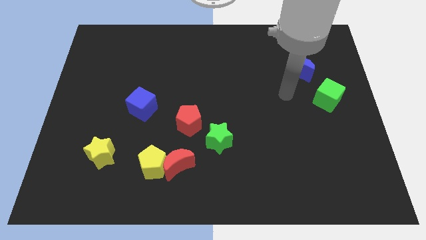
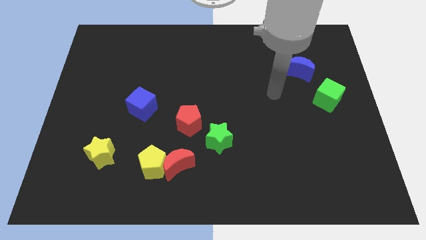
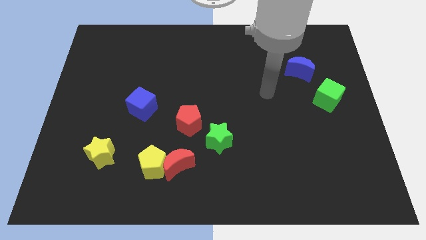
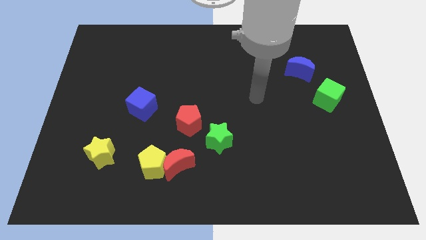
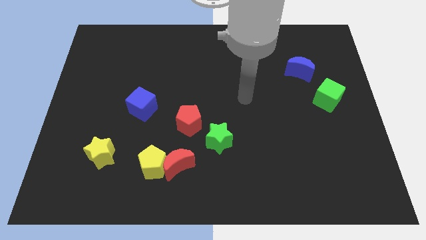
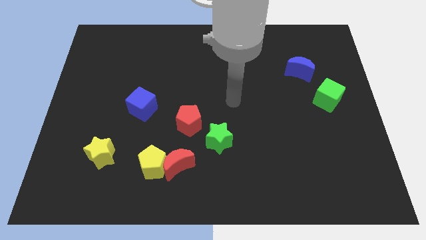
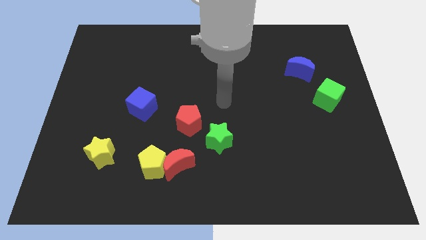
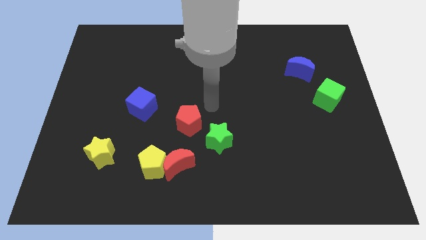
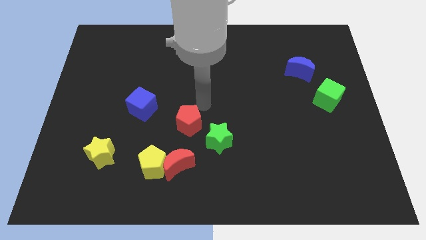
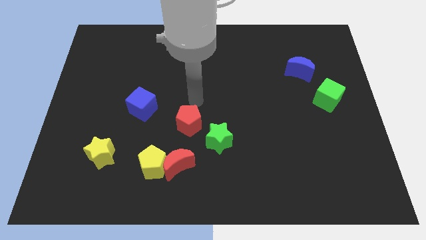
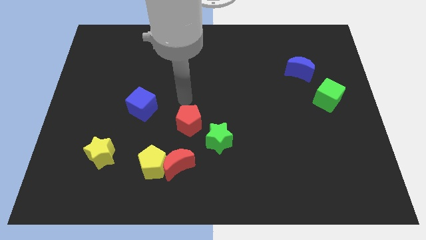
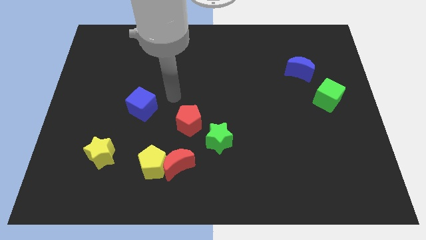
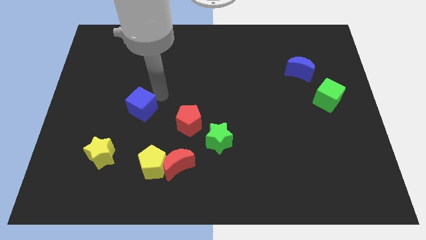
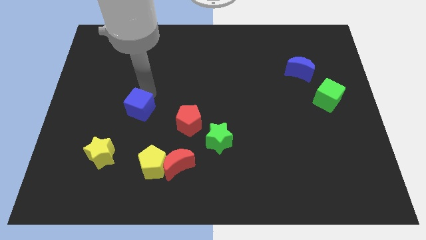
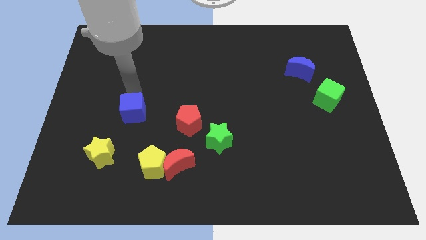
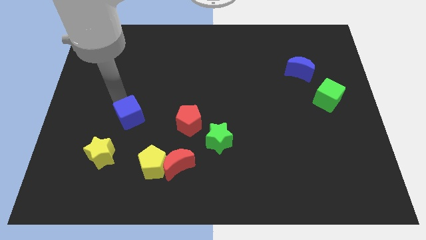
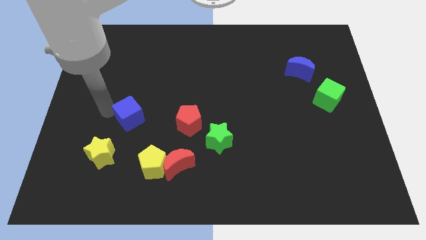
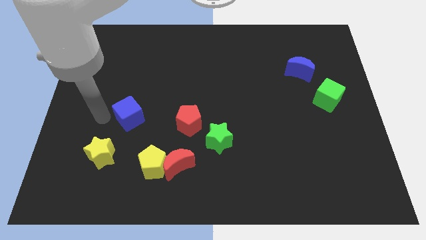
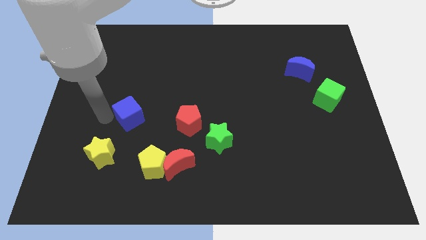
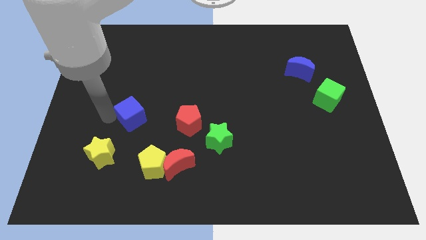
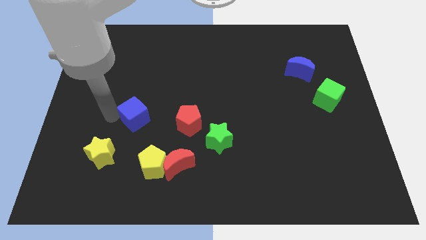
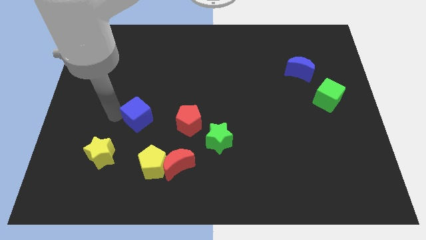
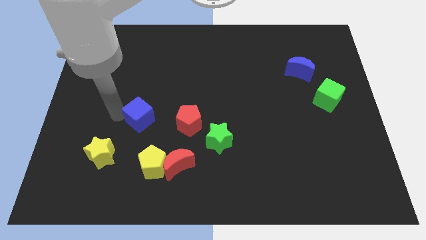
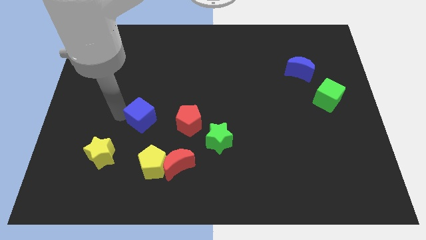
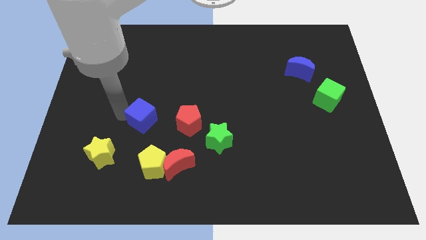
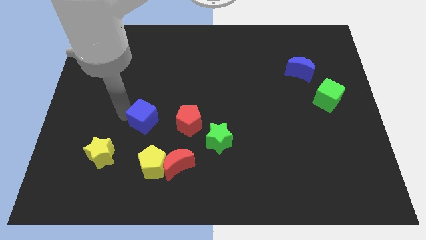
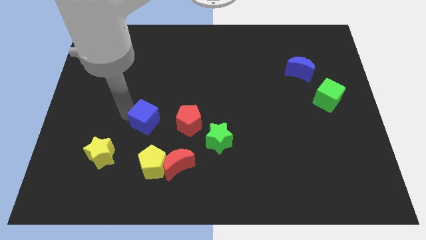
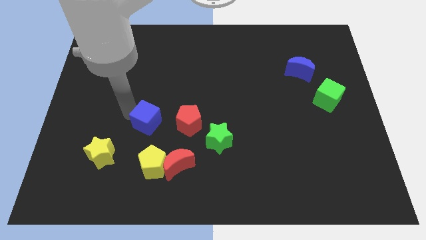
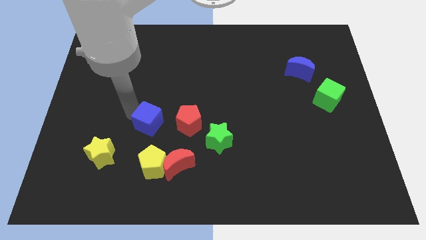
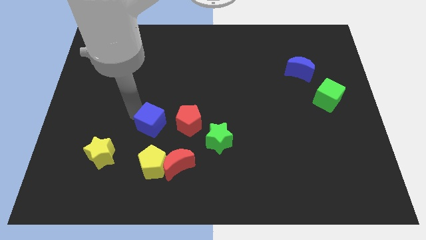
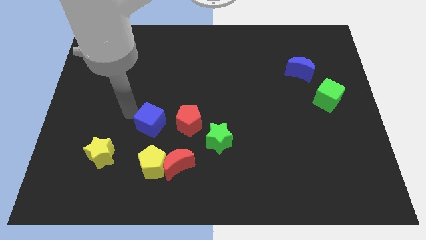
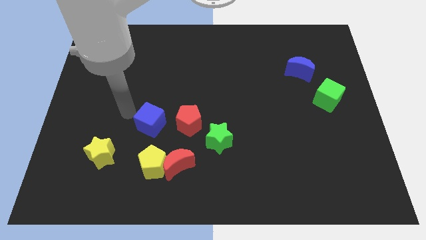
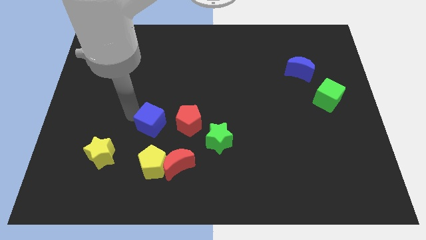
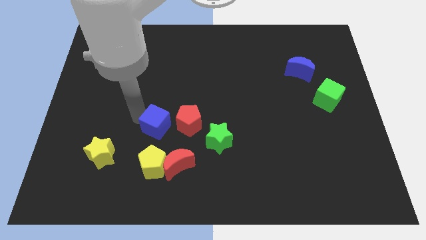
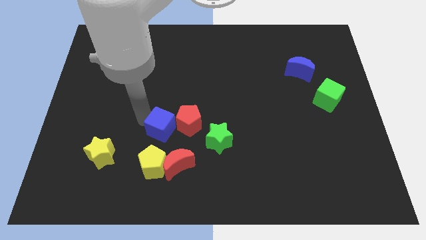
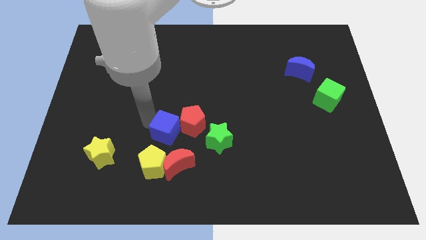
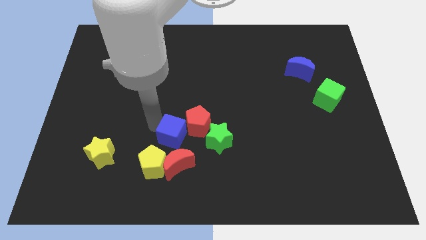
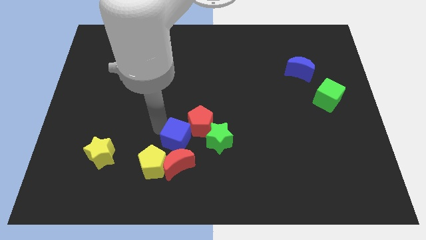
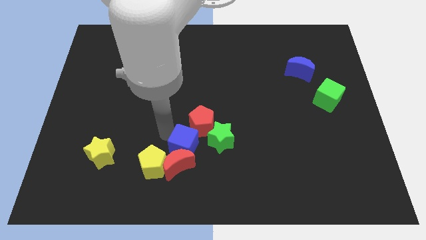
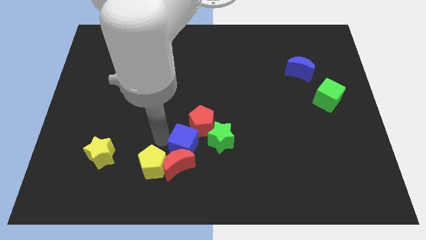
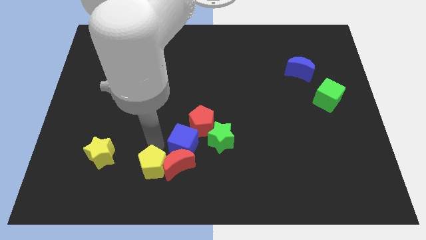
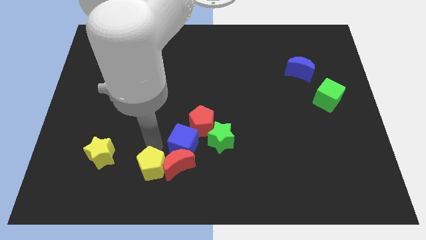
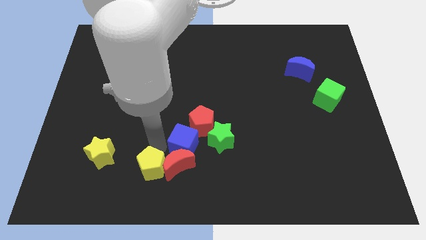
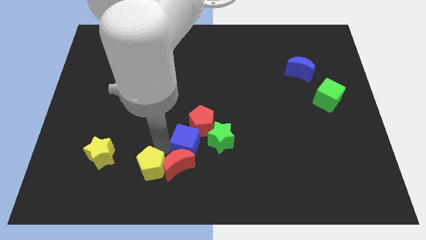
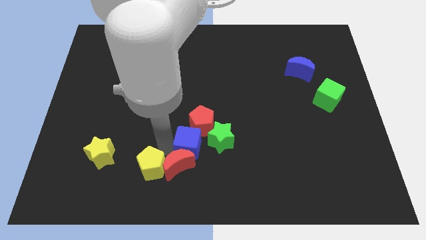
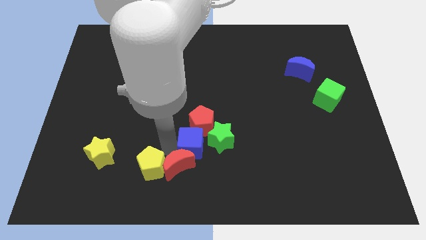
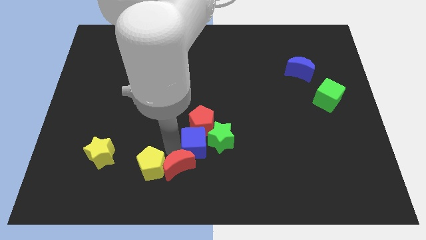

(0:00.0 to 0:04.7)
push the blue cube next to the green star

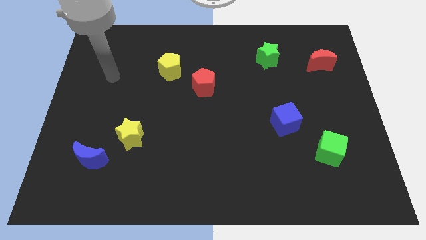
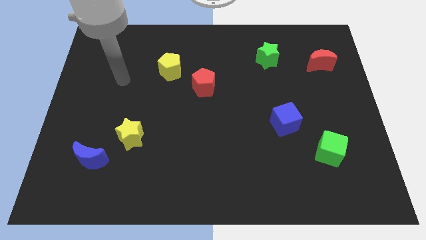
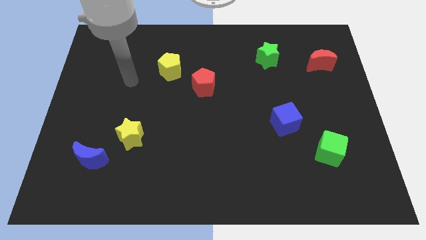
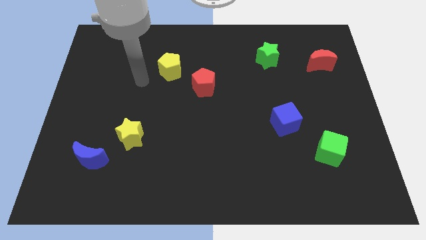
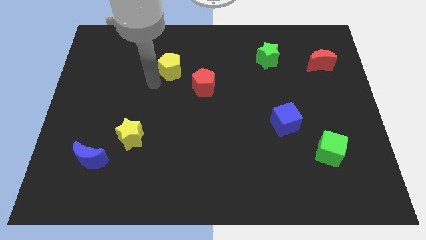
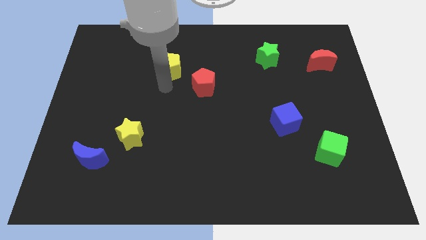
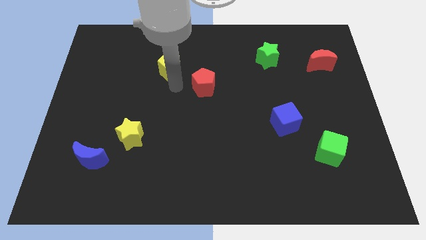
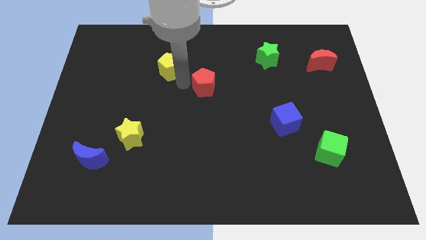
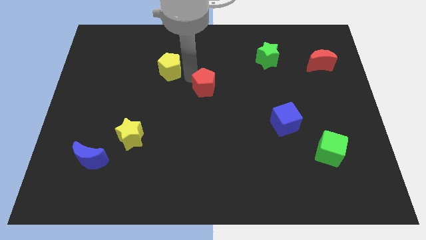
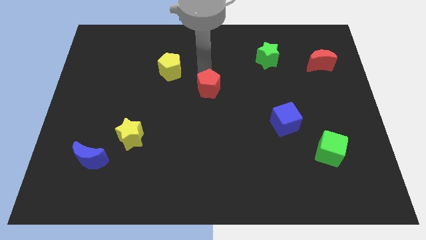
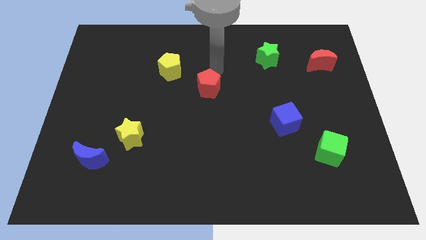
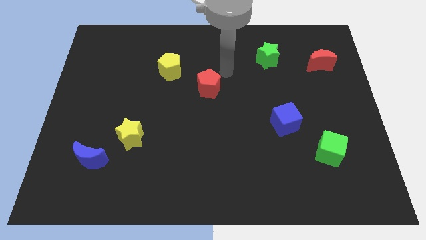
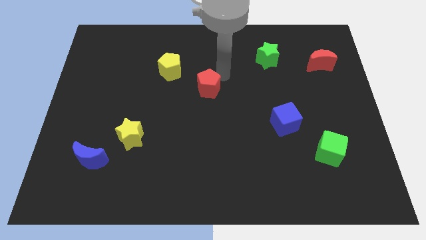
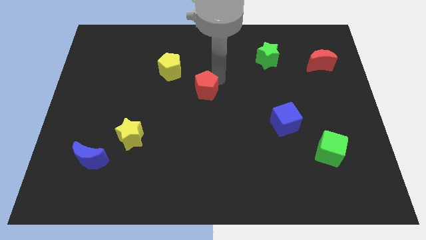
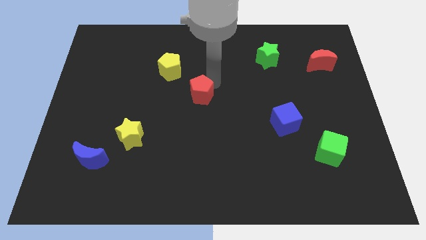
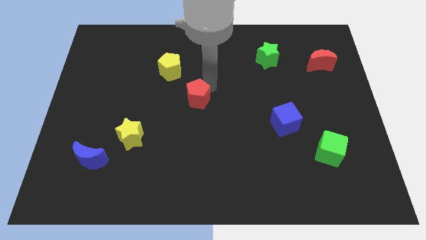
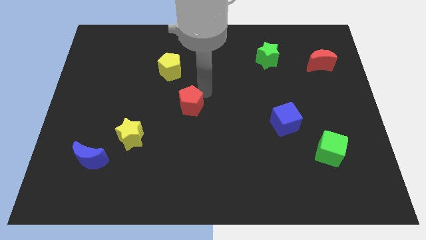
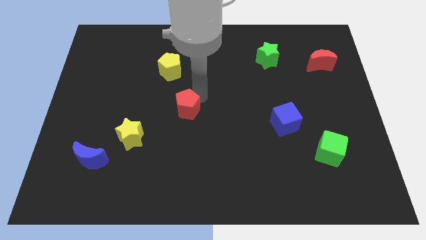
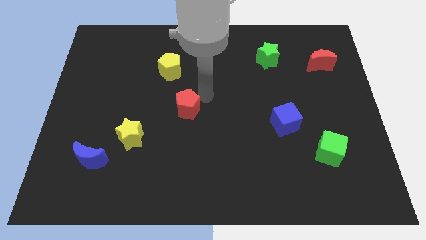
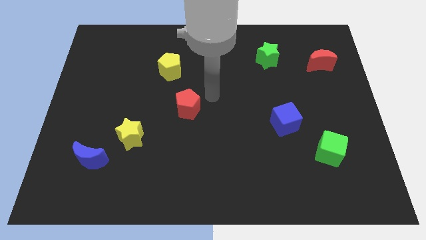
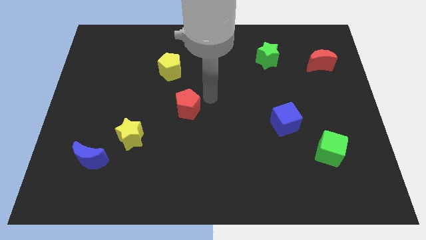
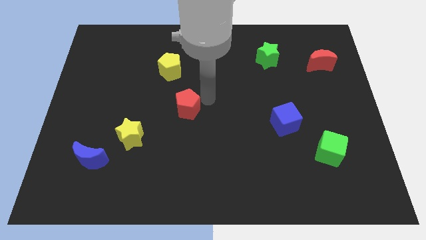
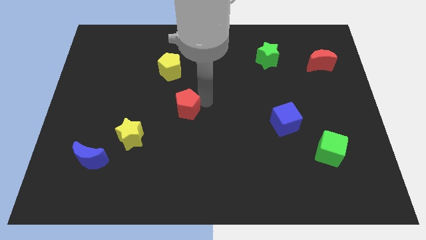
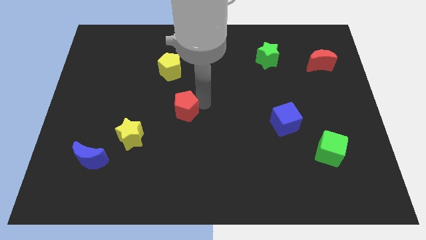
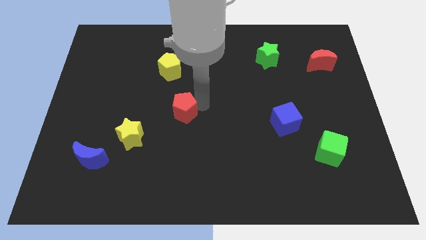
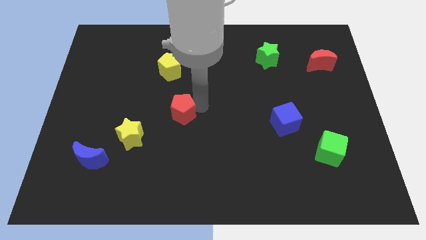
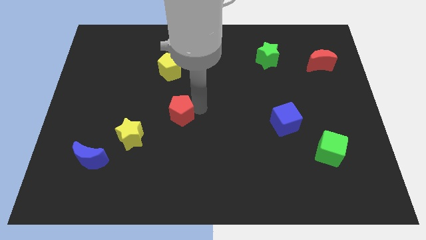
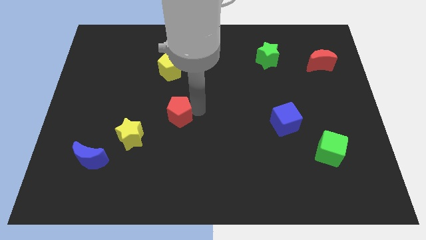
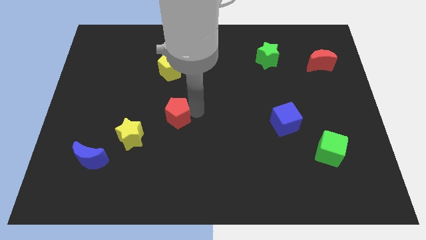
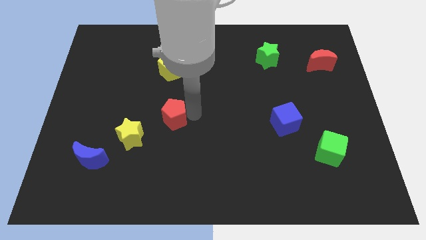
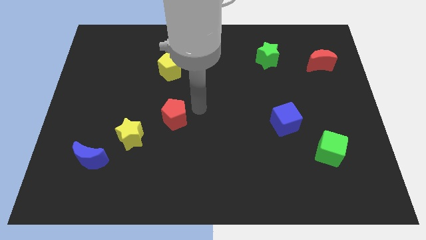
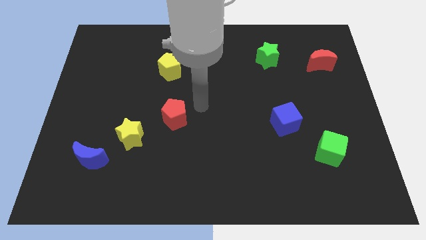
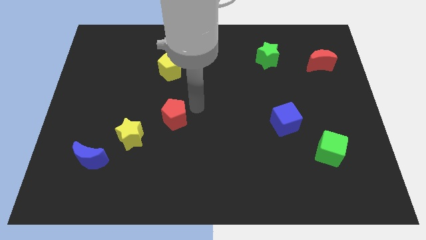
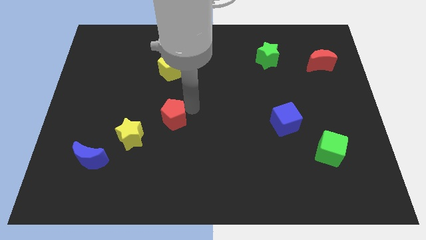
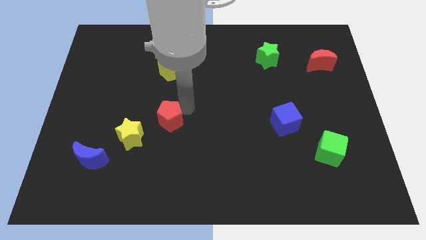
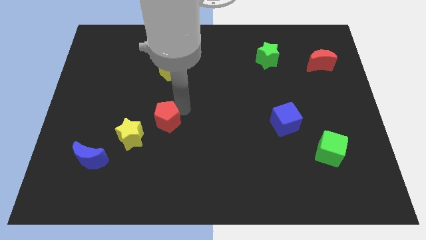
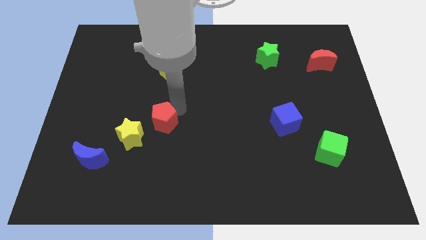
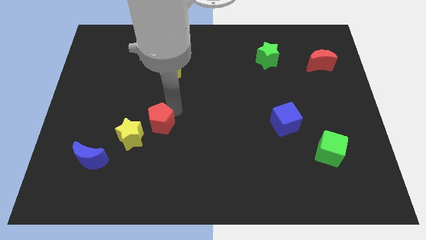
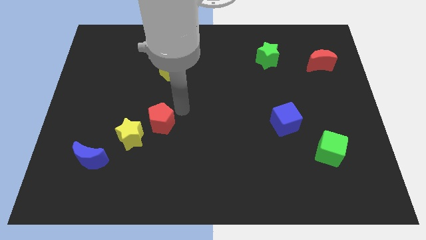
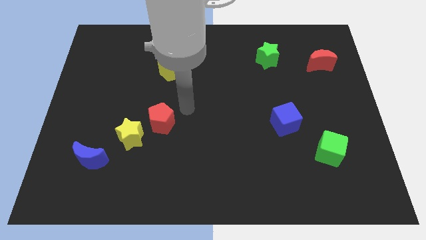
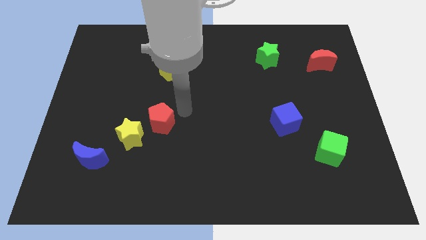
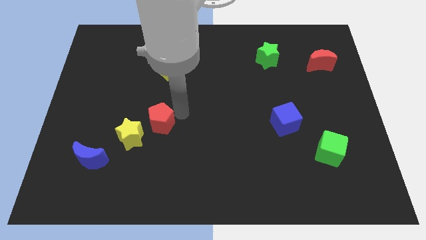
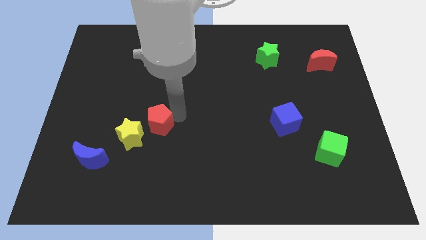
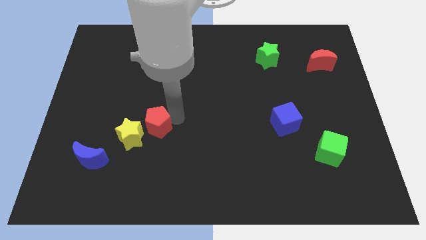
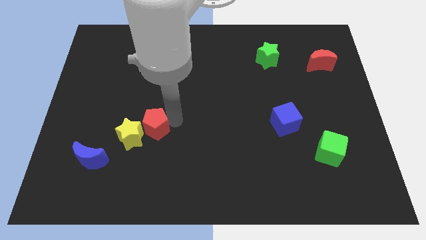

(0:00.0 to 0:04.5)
move the red pentagon towards the yellow star
